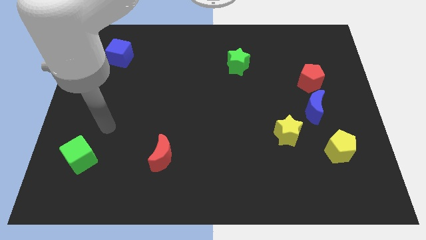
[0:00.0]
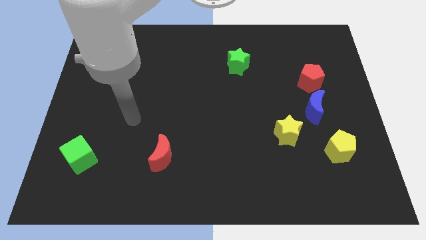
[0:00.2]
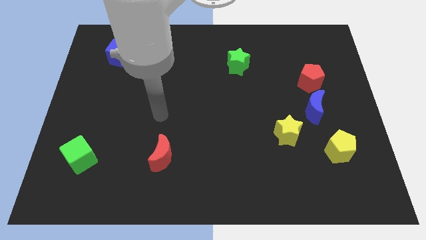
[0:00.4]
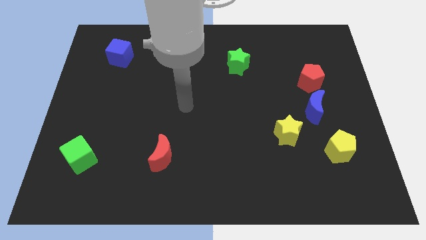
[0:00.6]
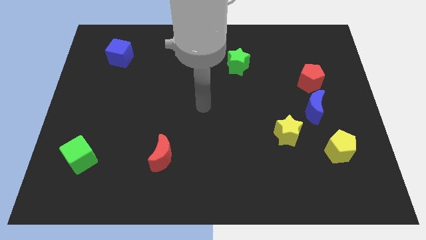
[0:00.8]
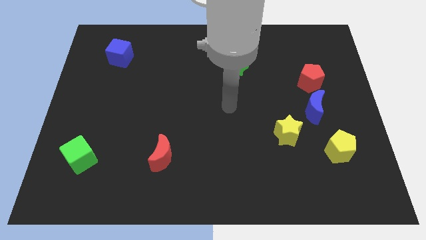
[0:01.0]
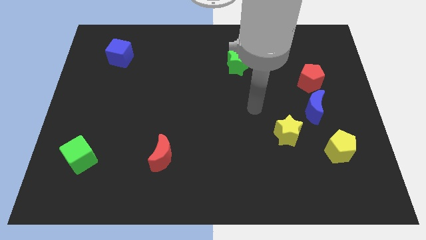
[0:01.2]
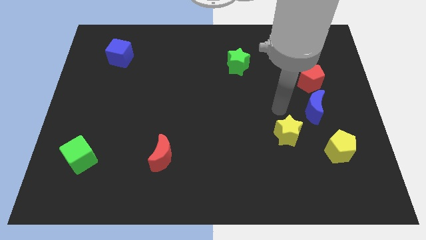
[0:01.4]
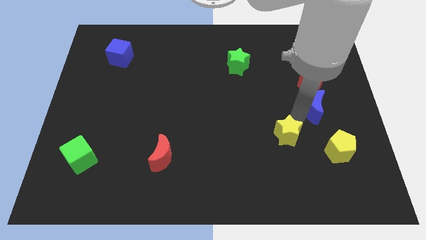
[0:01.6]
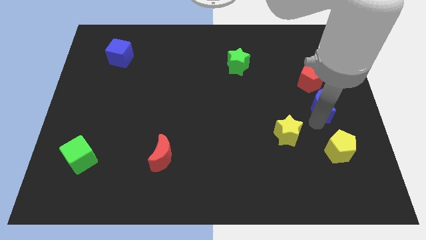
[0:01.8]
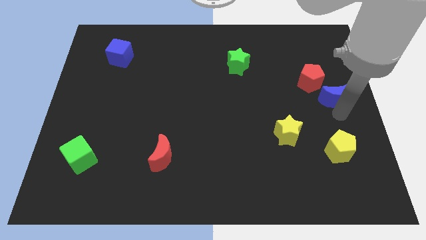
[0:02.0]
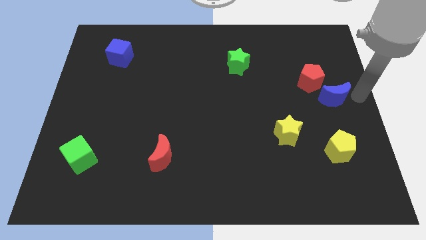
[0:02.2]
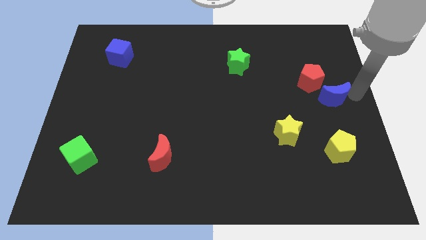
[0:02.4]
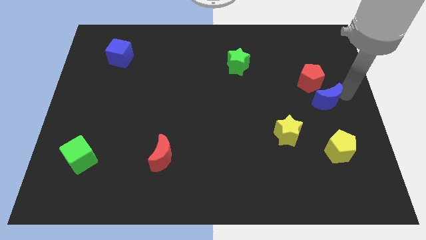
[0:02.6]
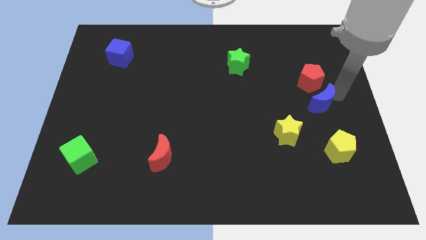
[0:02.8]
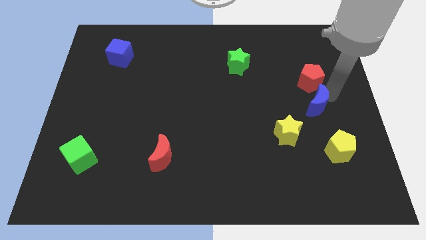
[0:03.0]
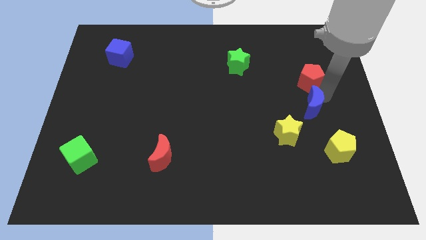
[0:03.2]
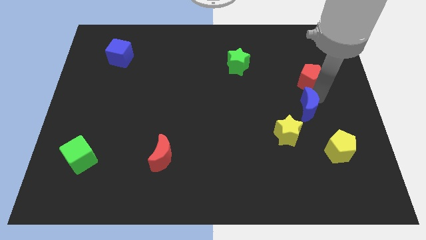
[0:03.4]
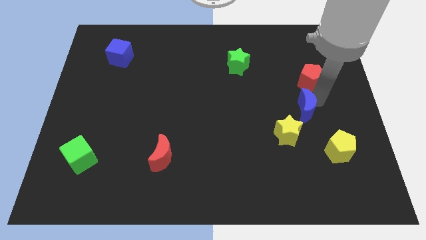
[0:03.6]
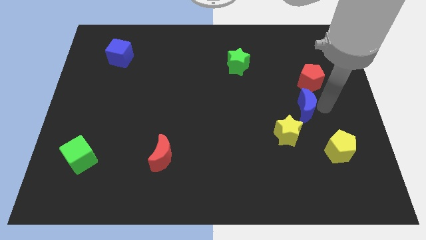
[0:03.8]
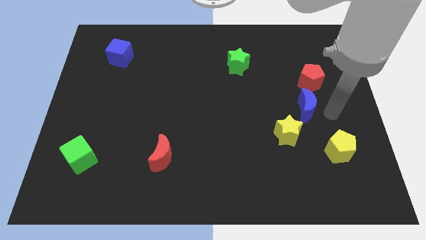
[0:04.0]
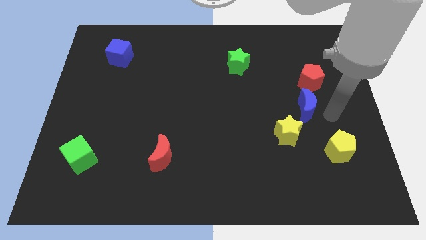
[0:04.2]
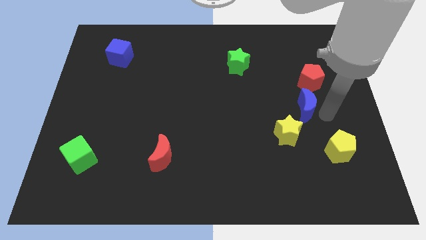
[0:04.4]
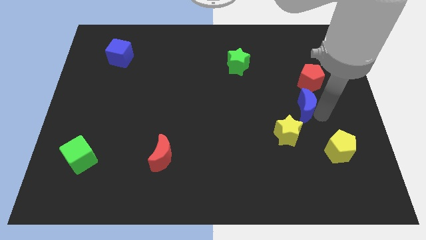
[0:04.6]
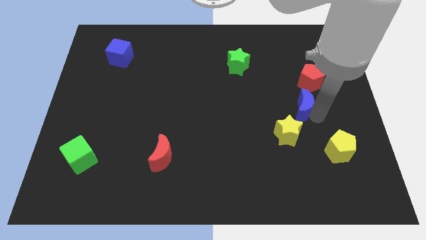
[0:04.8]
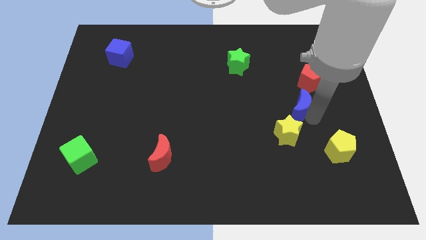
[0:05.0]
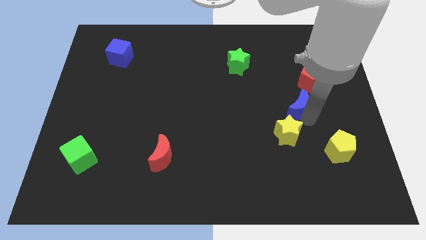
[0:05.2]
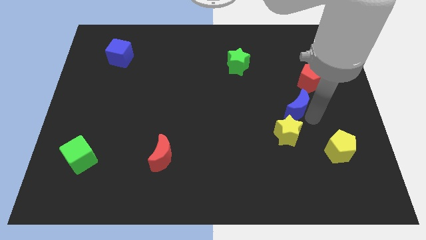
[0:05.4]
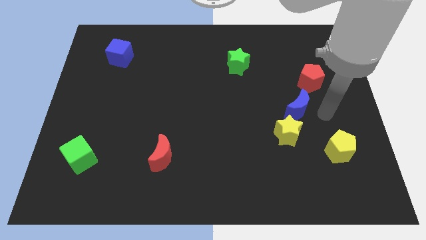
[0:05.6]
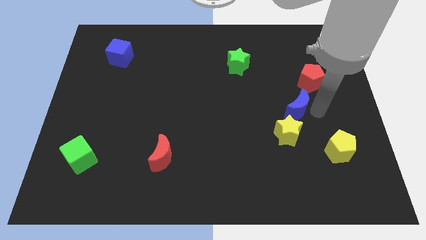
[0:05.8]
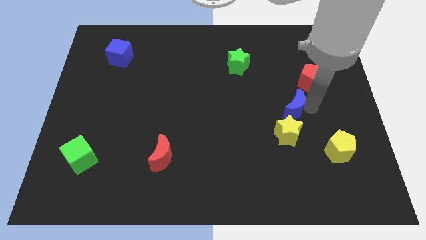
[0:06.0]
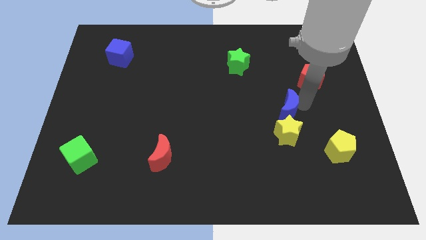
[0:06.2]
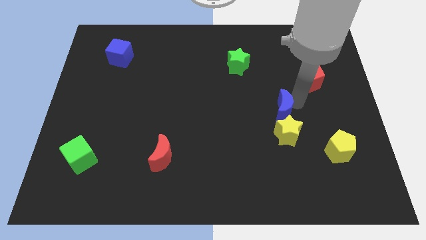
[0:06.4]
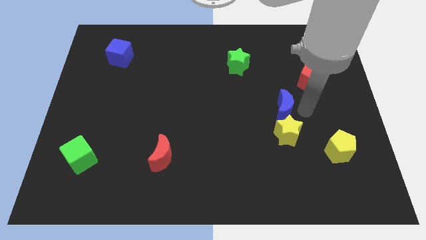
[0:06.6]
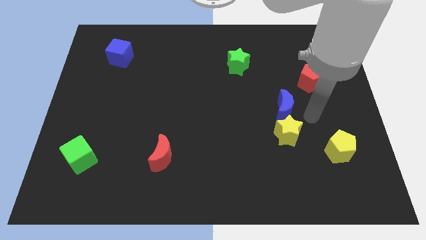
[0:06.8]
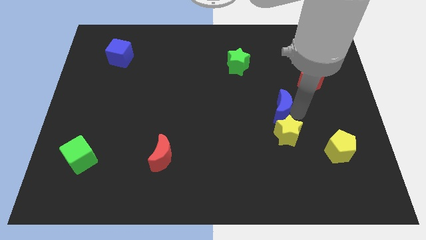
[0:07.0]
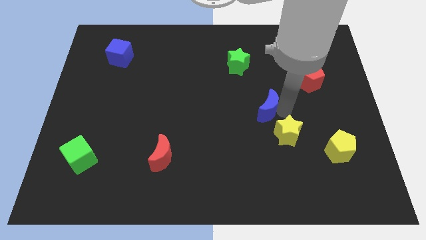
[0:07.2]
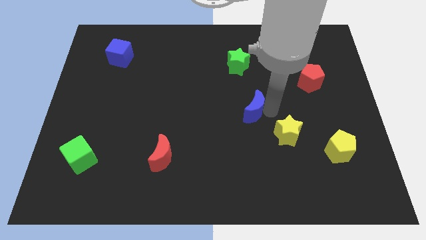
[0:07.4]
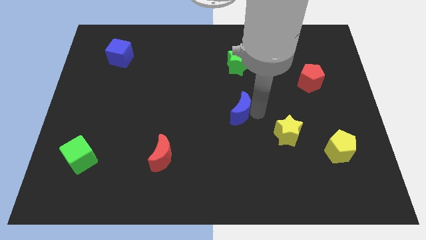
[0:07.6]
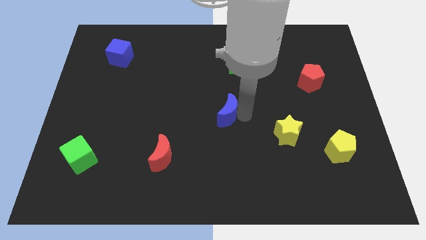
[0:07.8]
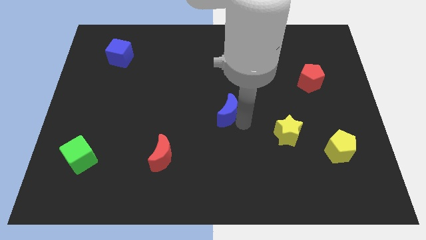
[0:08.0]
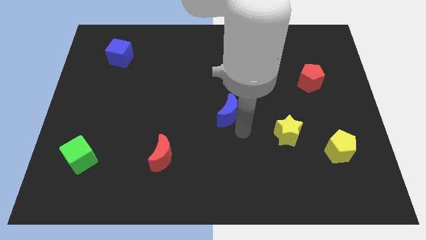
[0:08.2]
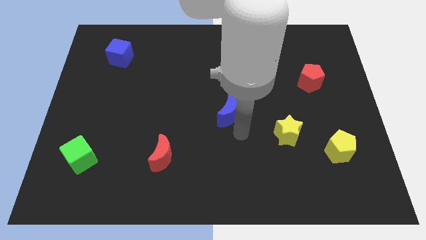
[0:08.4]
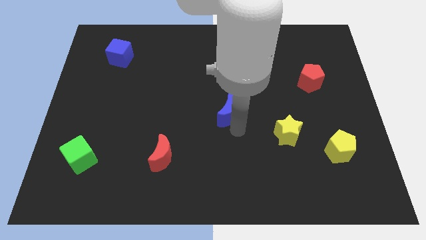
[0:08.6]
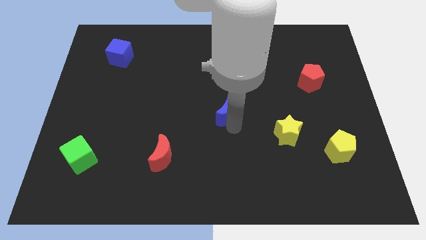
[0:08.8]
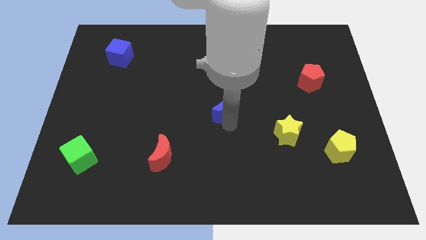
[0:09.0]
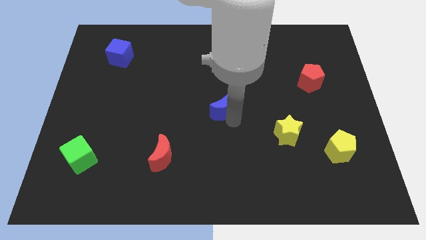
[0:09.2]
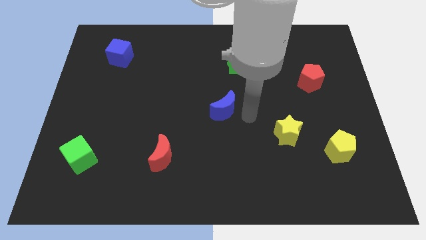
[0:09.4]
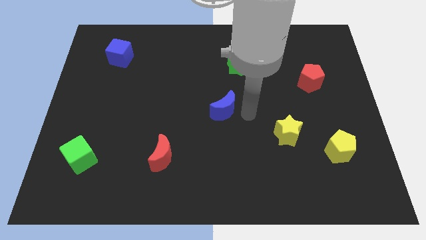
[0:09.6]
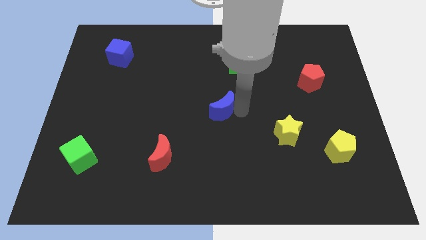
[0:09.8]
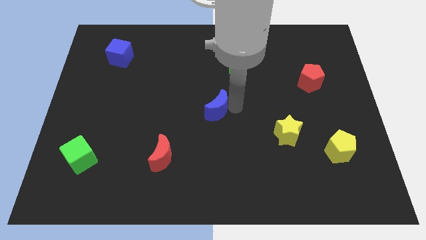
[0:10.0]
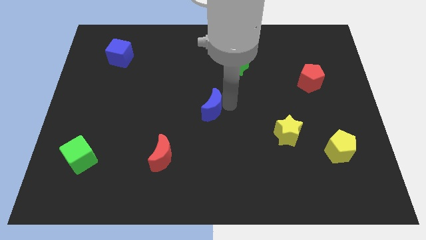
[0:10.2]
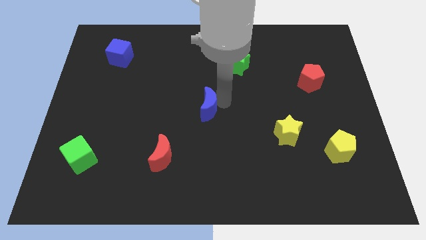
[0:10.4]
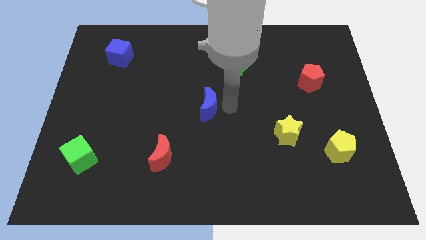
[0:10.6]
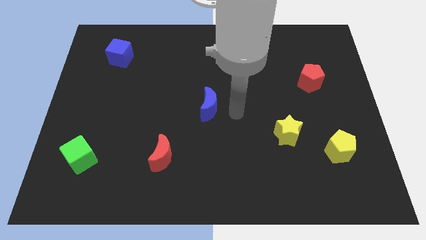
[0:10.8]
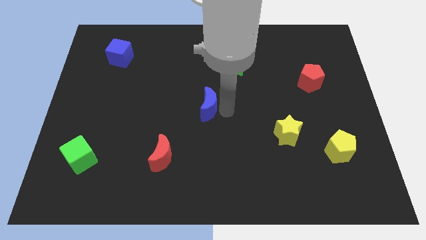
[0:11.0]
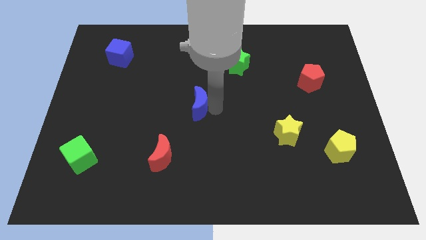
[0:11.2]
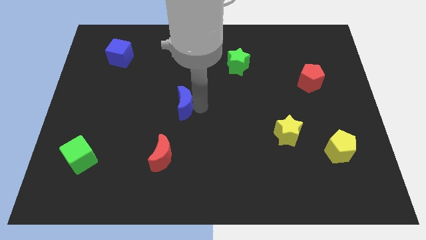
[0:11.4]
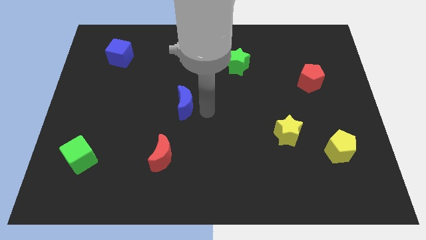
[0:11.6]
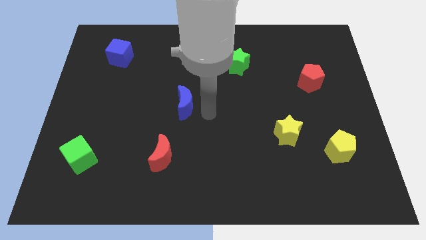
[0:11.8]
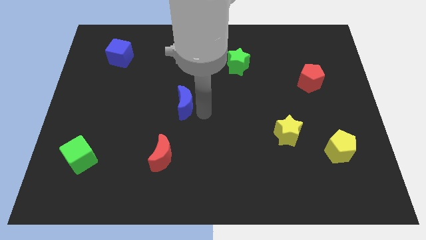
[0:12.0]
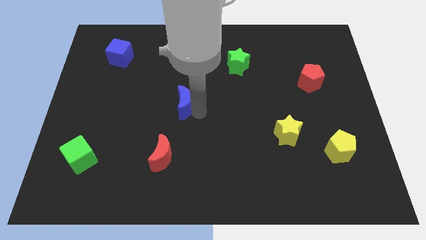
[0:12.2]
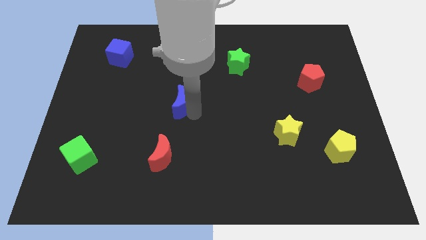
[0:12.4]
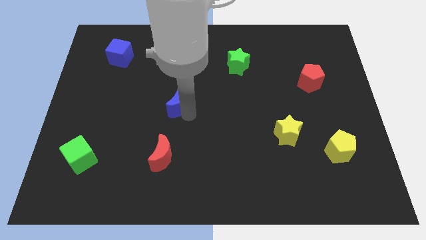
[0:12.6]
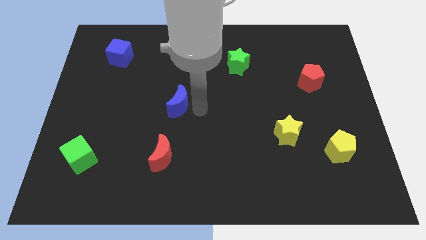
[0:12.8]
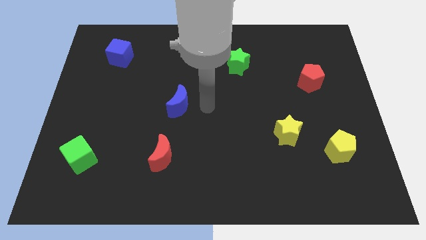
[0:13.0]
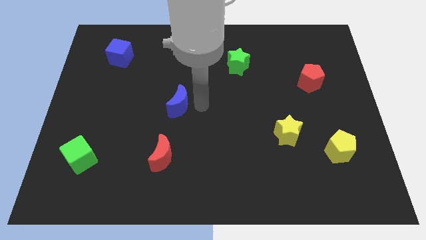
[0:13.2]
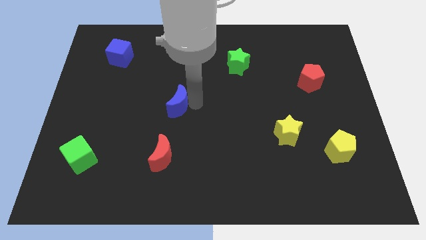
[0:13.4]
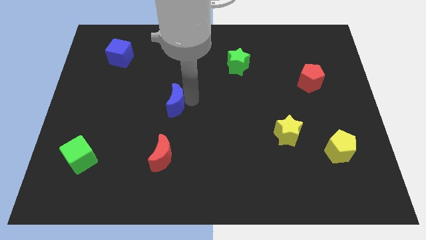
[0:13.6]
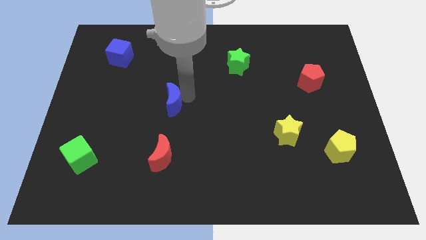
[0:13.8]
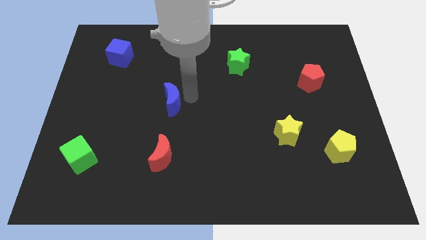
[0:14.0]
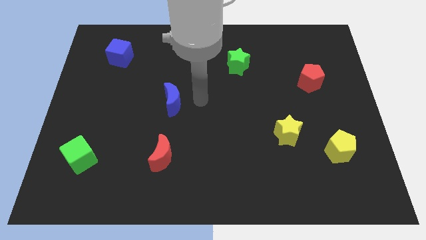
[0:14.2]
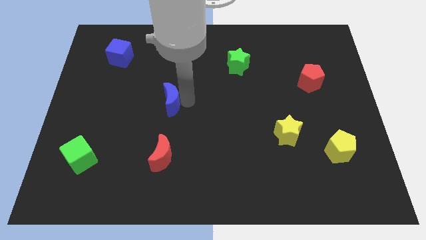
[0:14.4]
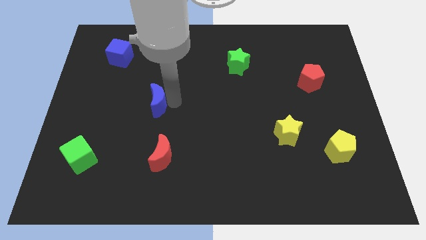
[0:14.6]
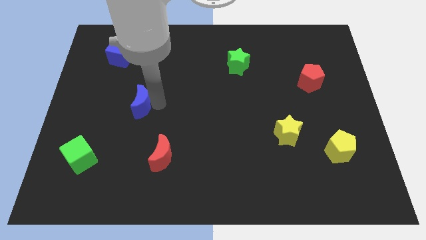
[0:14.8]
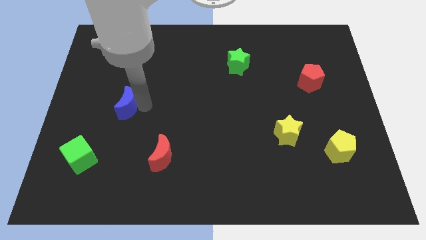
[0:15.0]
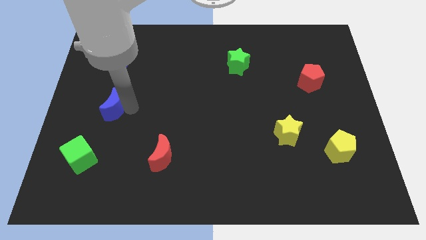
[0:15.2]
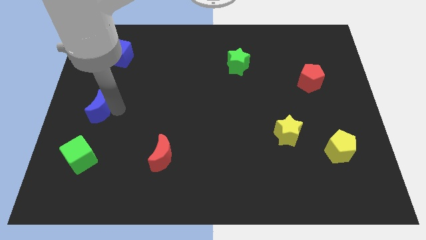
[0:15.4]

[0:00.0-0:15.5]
slide the blue moon to the left side
